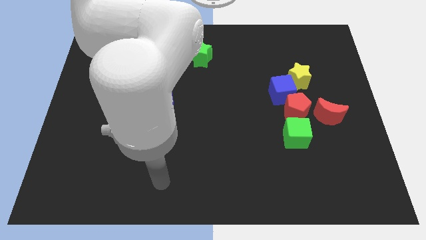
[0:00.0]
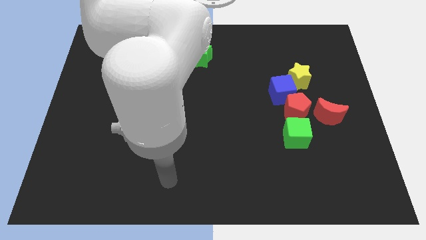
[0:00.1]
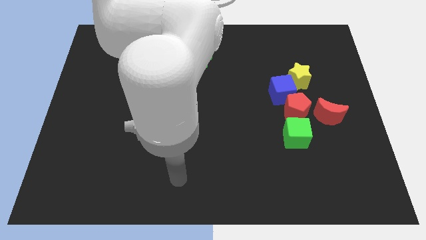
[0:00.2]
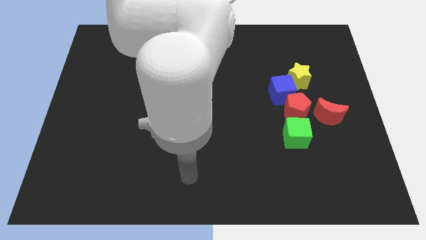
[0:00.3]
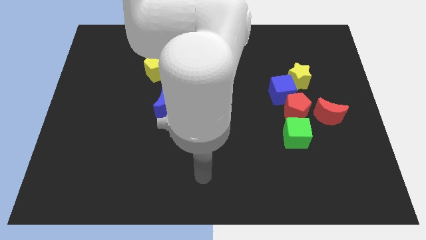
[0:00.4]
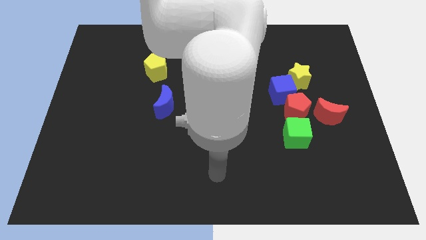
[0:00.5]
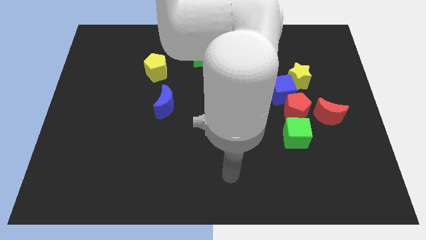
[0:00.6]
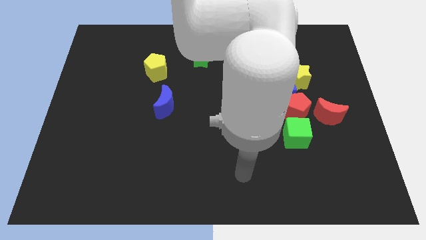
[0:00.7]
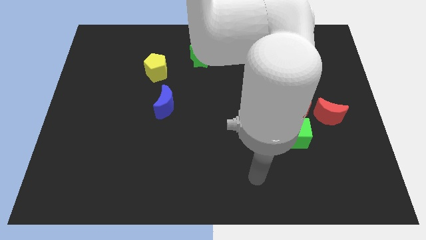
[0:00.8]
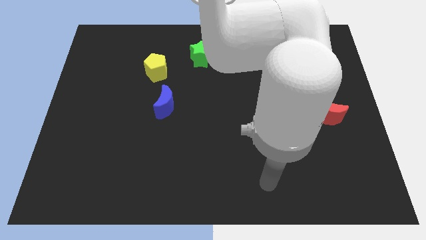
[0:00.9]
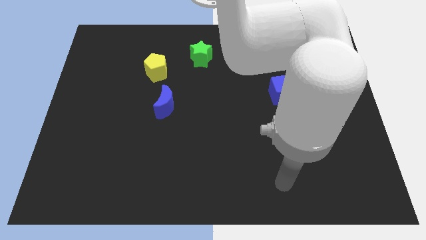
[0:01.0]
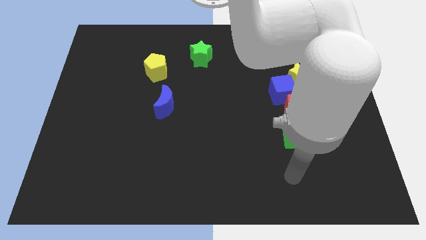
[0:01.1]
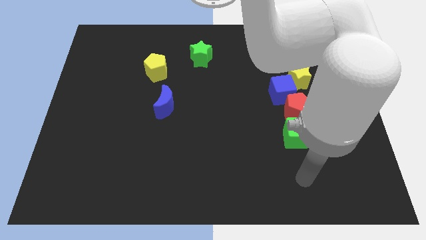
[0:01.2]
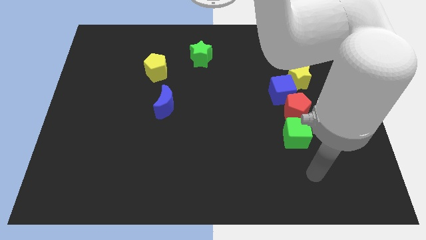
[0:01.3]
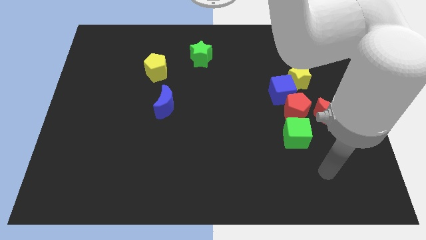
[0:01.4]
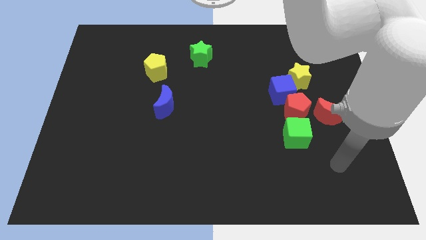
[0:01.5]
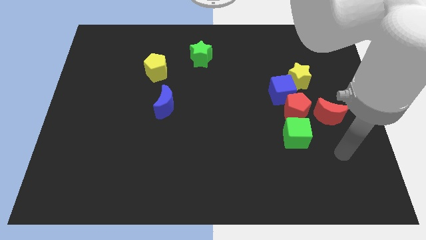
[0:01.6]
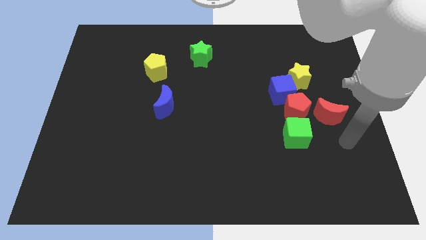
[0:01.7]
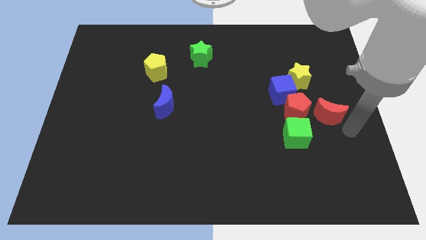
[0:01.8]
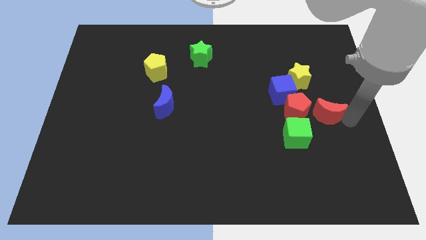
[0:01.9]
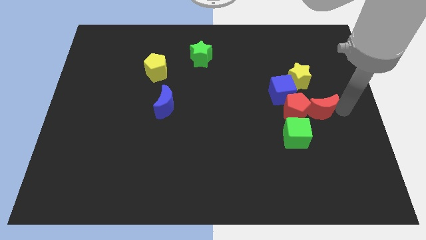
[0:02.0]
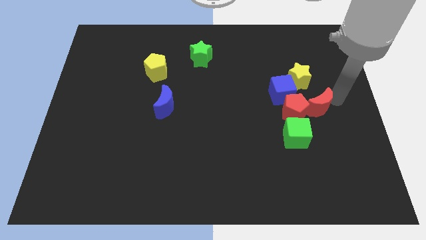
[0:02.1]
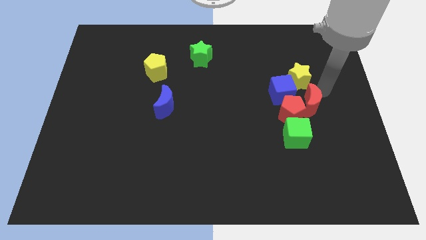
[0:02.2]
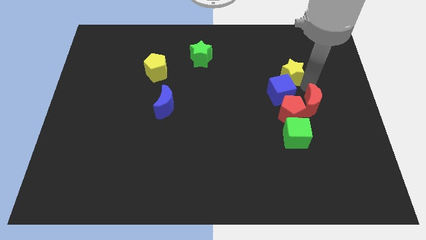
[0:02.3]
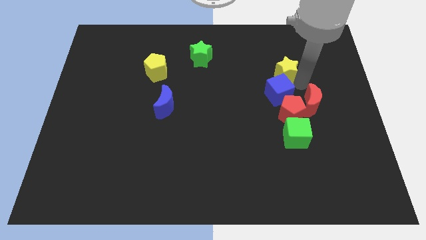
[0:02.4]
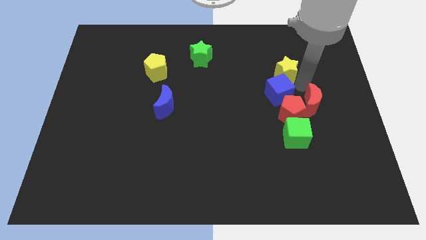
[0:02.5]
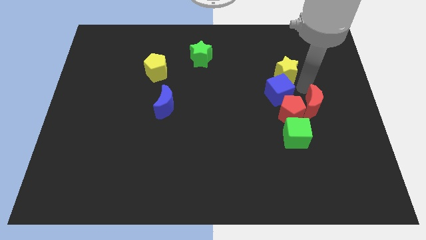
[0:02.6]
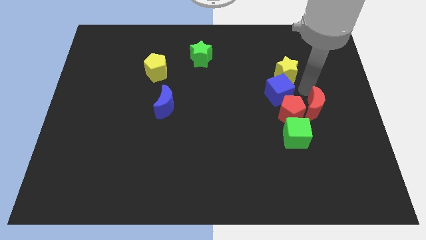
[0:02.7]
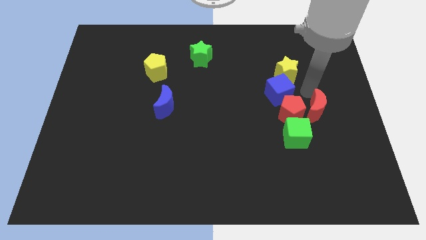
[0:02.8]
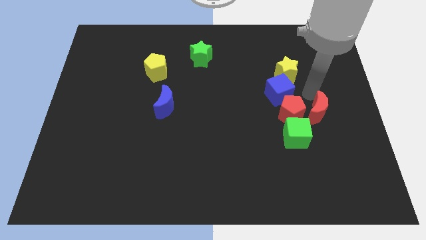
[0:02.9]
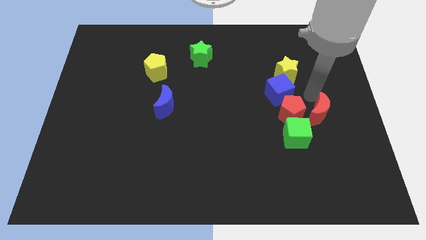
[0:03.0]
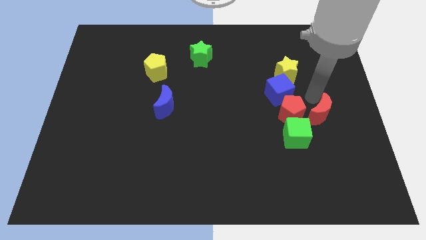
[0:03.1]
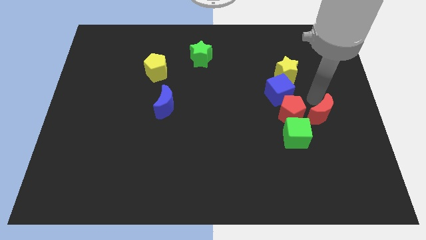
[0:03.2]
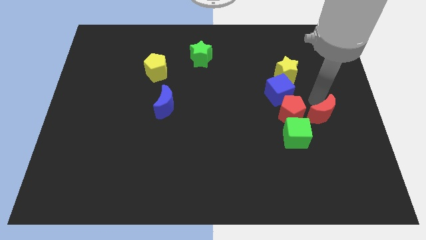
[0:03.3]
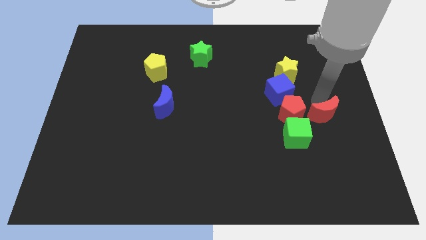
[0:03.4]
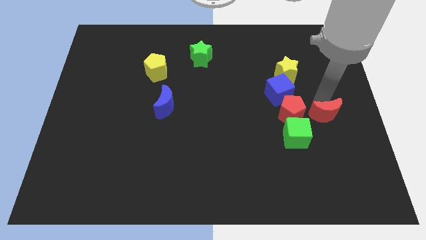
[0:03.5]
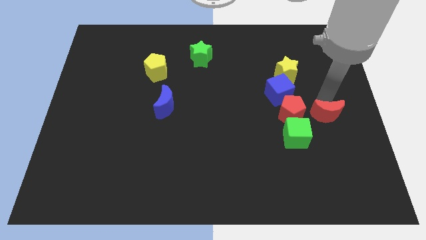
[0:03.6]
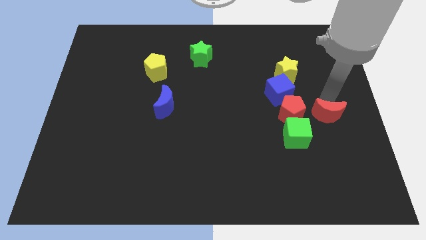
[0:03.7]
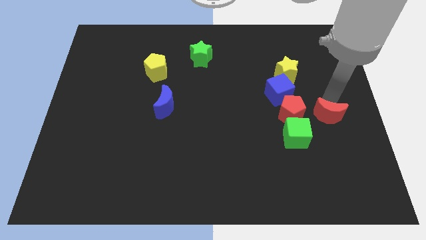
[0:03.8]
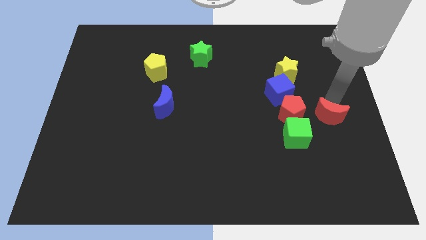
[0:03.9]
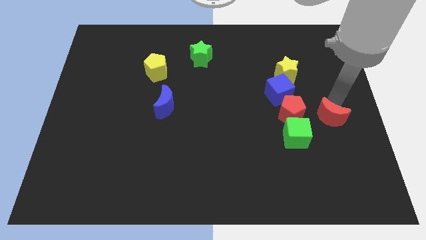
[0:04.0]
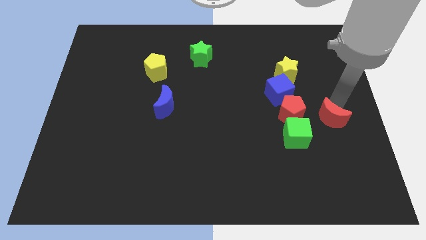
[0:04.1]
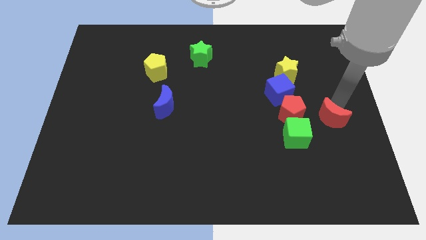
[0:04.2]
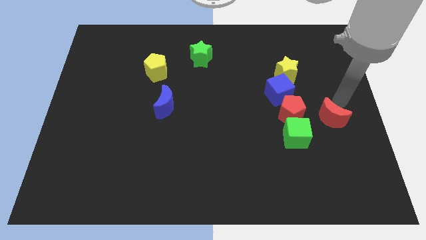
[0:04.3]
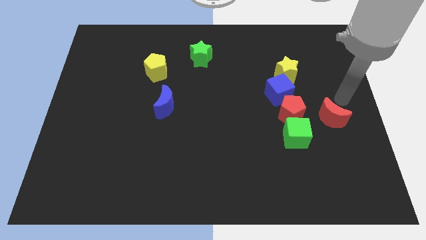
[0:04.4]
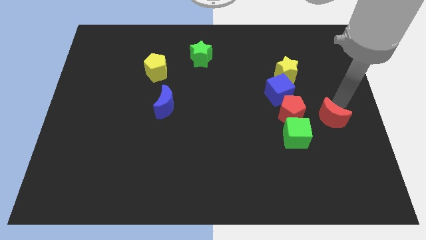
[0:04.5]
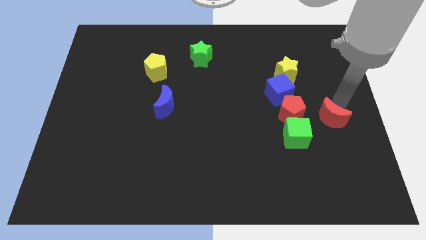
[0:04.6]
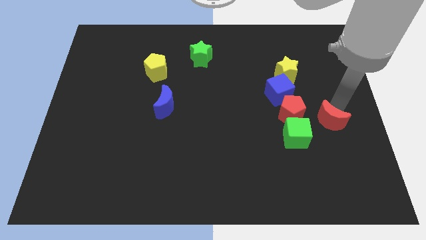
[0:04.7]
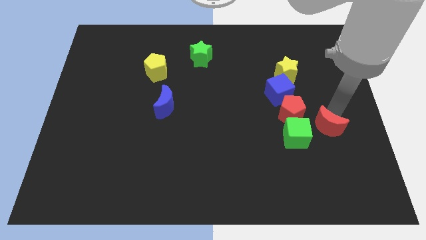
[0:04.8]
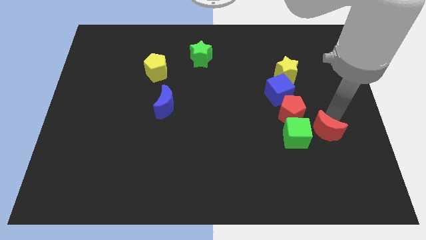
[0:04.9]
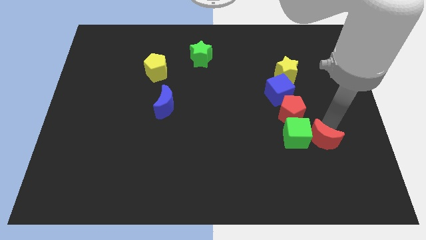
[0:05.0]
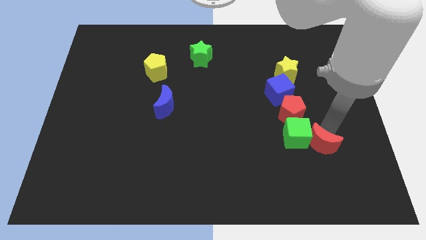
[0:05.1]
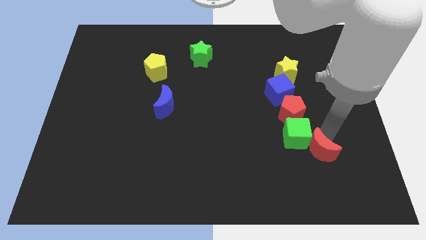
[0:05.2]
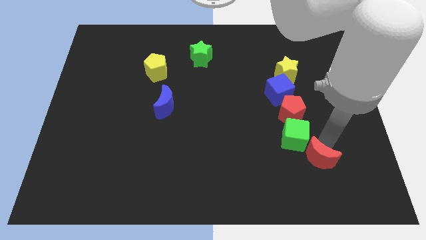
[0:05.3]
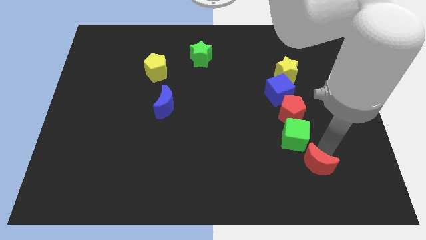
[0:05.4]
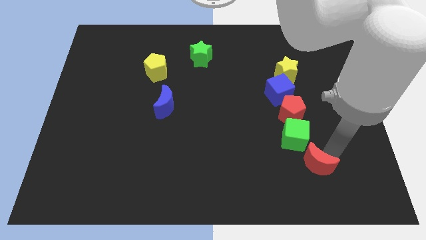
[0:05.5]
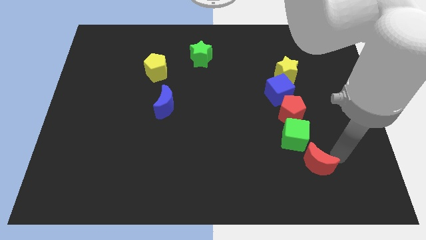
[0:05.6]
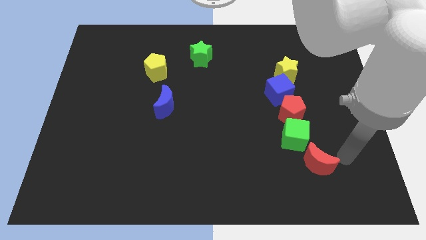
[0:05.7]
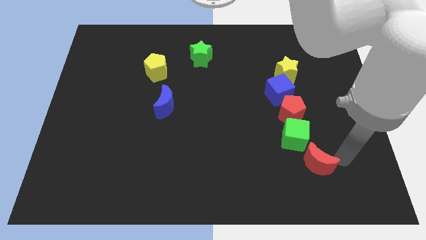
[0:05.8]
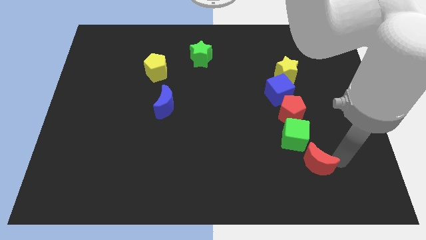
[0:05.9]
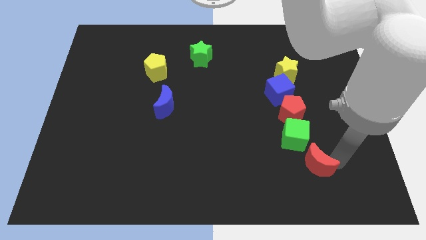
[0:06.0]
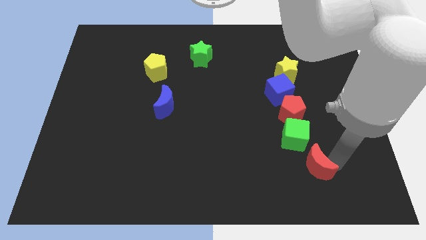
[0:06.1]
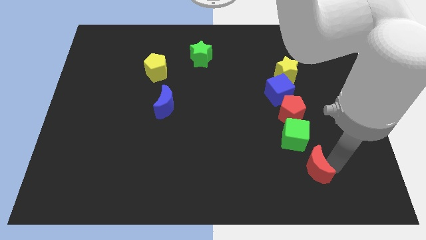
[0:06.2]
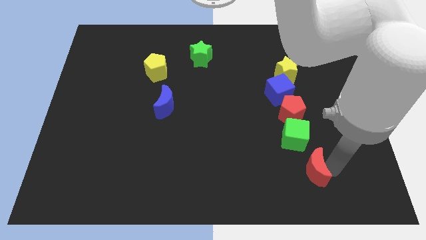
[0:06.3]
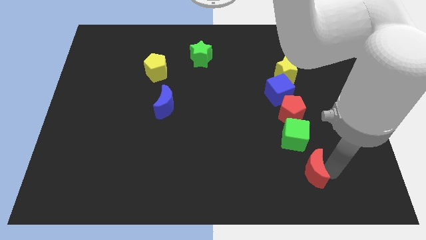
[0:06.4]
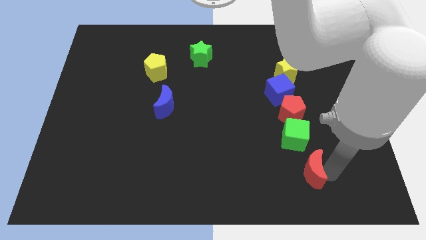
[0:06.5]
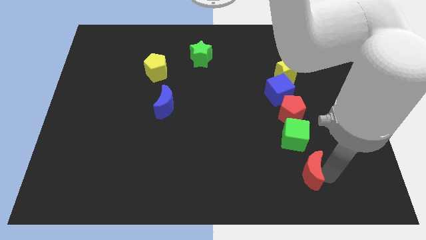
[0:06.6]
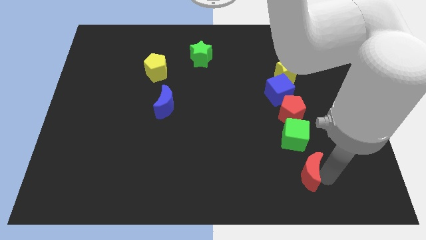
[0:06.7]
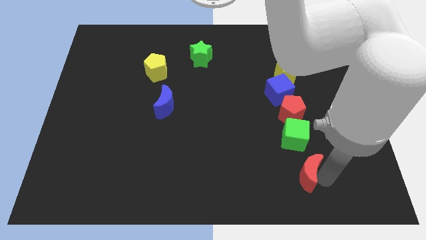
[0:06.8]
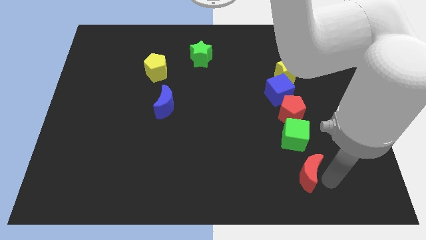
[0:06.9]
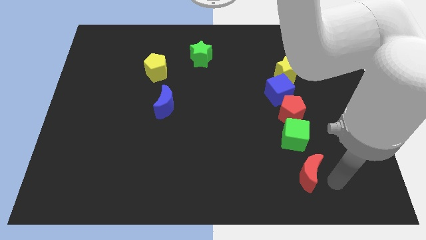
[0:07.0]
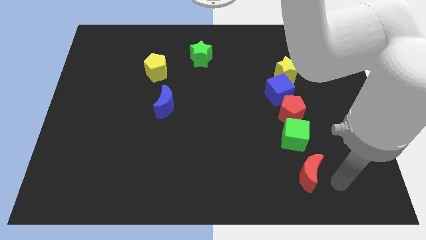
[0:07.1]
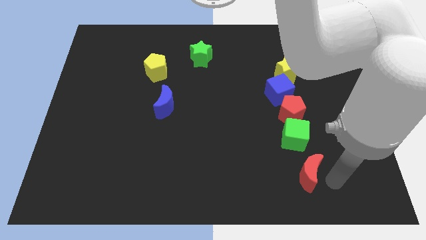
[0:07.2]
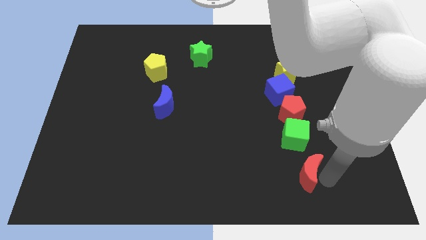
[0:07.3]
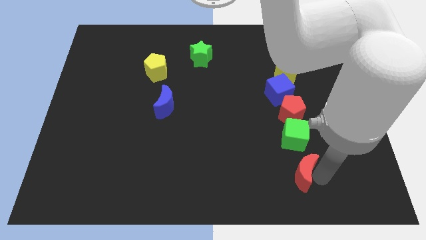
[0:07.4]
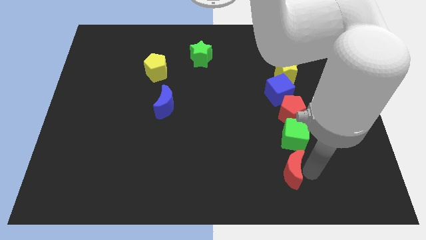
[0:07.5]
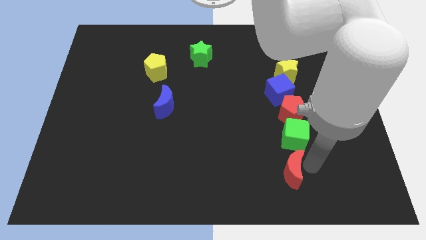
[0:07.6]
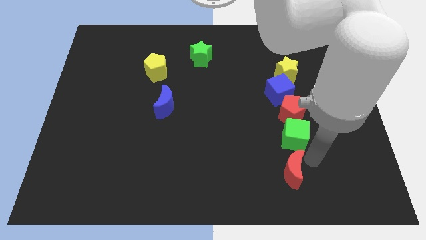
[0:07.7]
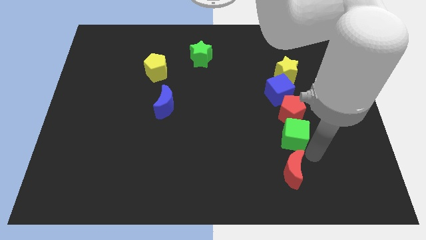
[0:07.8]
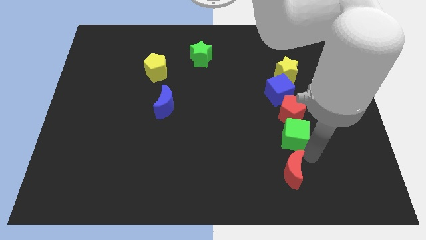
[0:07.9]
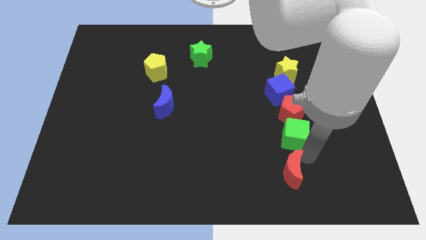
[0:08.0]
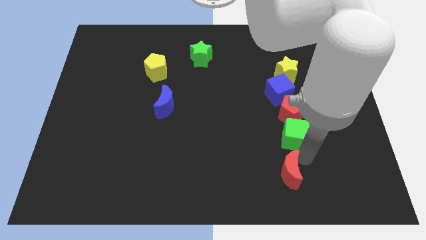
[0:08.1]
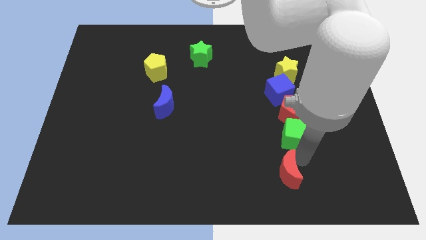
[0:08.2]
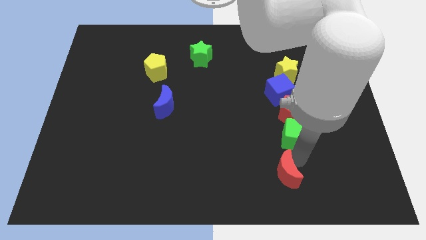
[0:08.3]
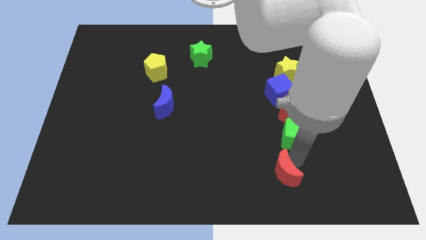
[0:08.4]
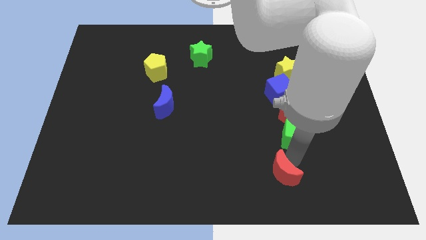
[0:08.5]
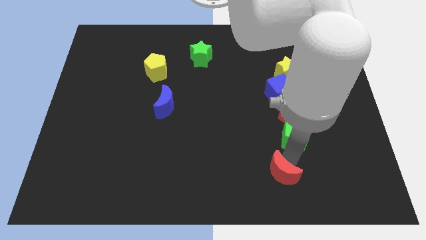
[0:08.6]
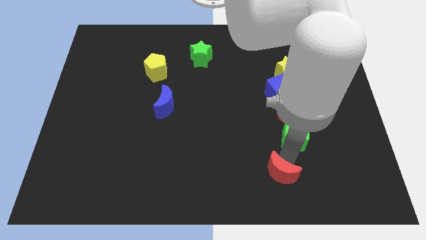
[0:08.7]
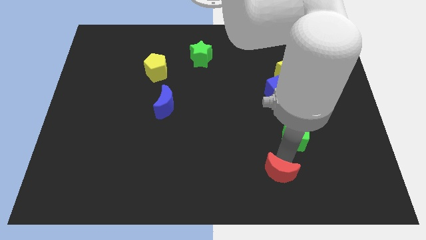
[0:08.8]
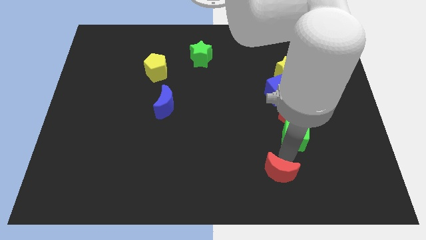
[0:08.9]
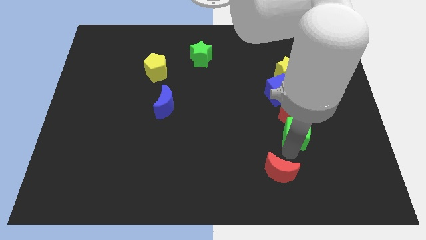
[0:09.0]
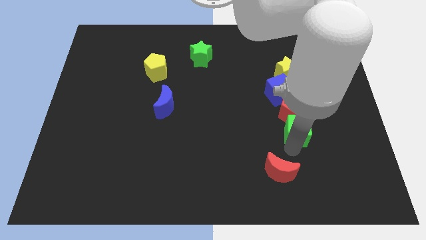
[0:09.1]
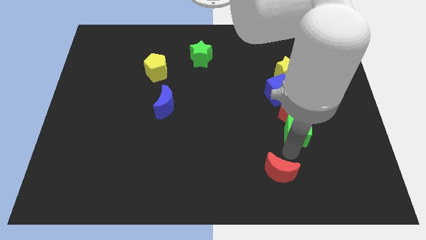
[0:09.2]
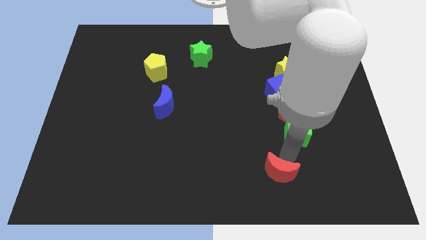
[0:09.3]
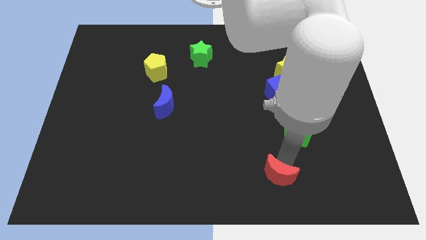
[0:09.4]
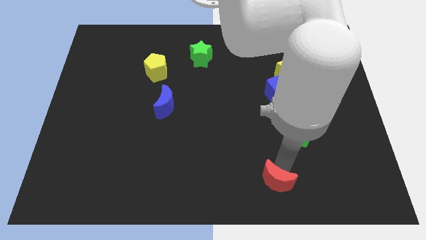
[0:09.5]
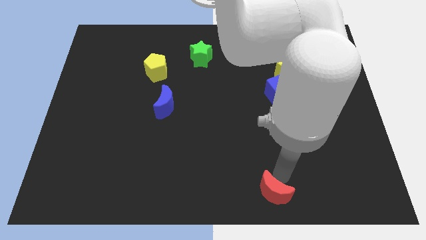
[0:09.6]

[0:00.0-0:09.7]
slide the red moon to the bottom
